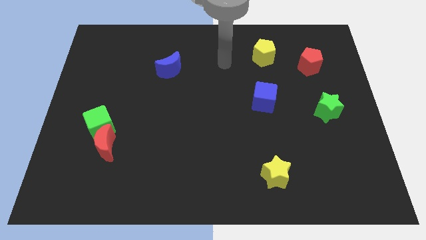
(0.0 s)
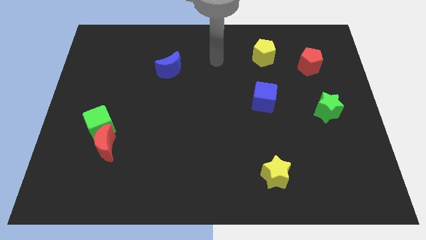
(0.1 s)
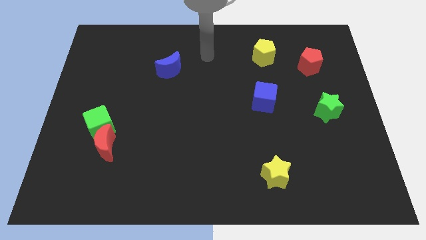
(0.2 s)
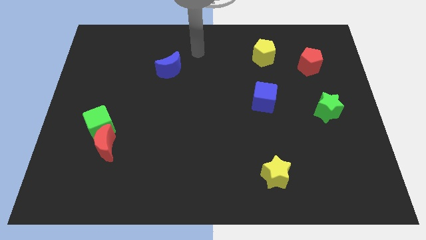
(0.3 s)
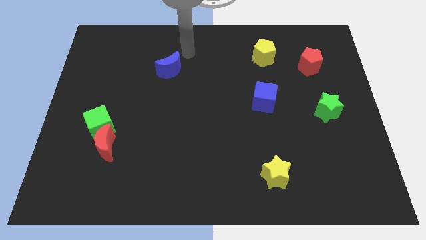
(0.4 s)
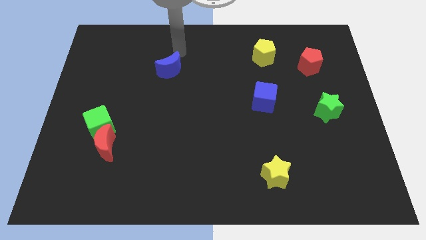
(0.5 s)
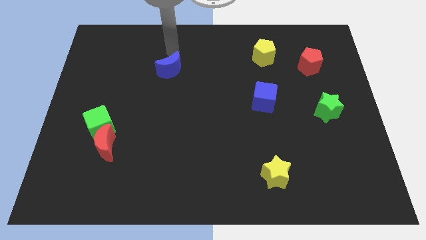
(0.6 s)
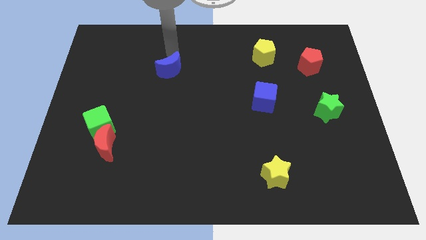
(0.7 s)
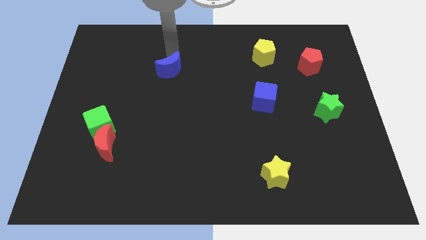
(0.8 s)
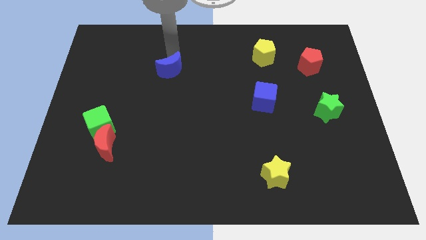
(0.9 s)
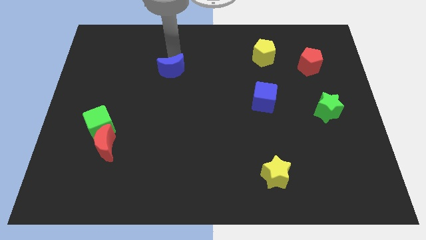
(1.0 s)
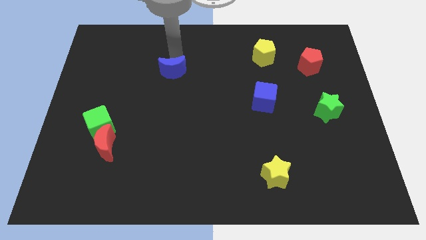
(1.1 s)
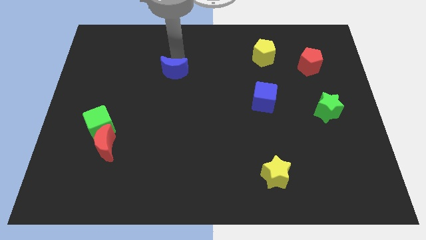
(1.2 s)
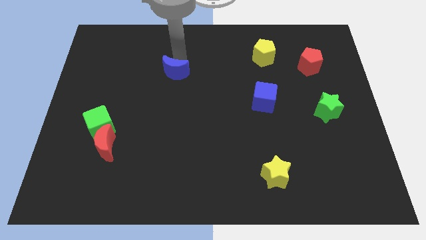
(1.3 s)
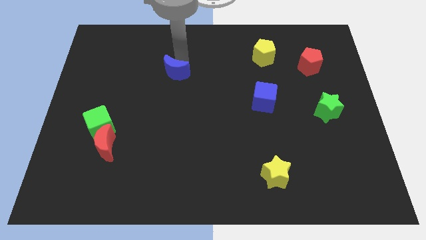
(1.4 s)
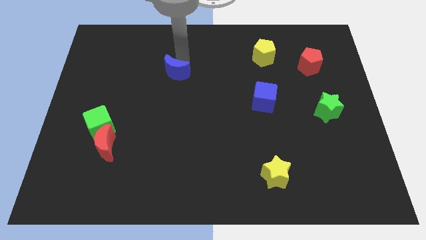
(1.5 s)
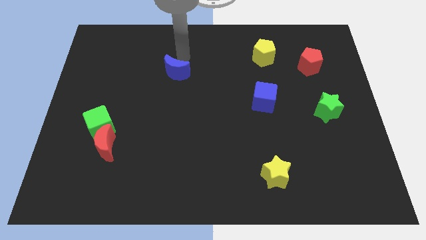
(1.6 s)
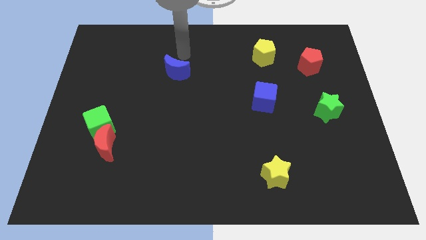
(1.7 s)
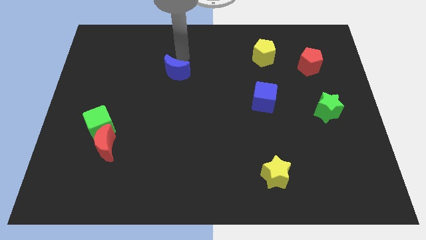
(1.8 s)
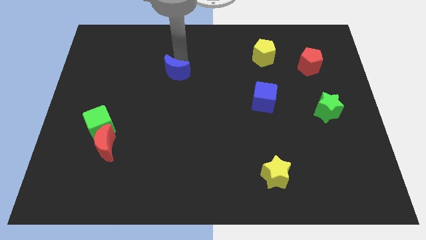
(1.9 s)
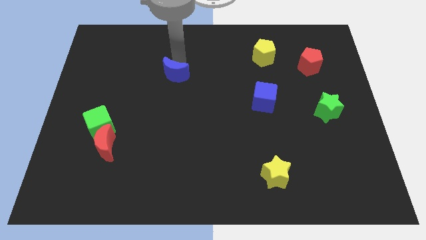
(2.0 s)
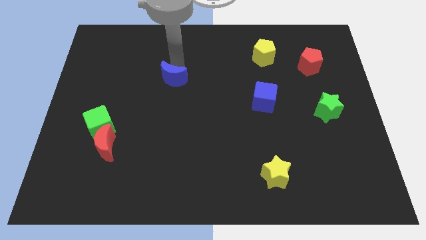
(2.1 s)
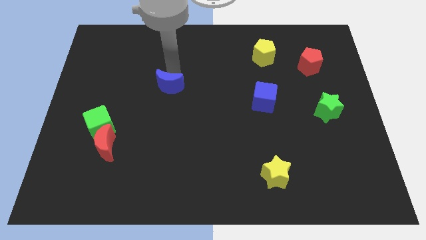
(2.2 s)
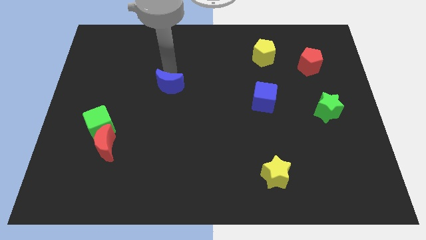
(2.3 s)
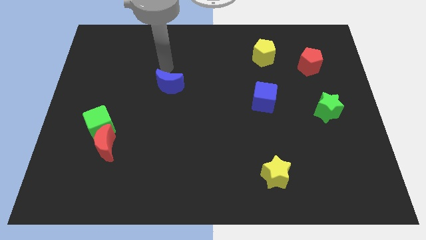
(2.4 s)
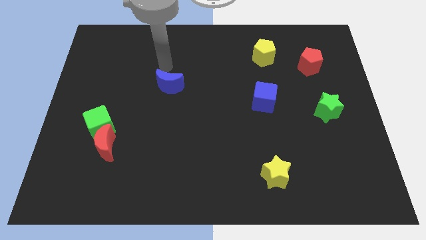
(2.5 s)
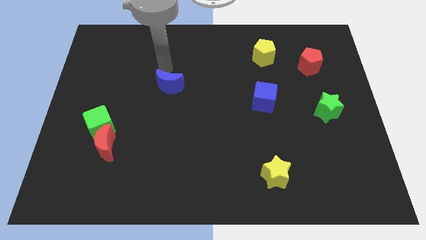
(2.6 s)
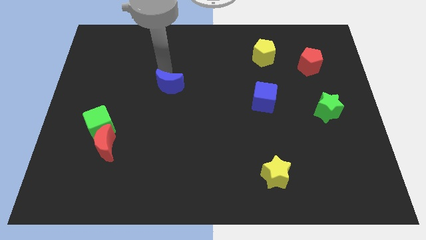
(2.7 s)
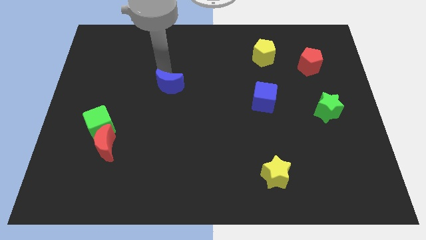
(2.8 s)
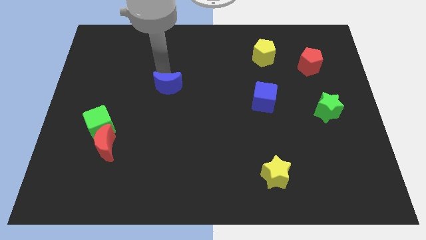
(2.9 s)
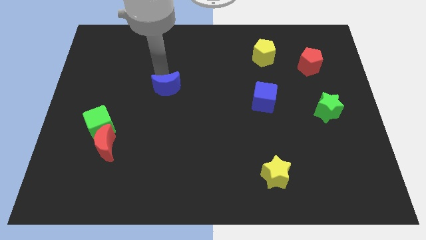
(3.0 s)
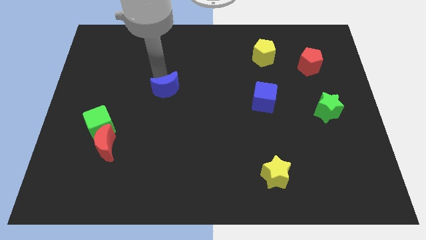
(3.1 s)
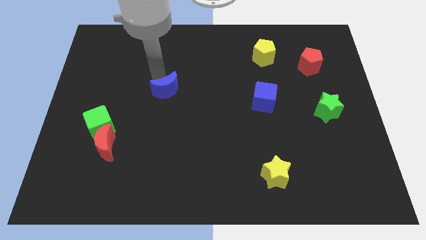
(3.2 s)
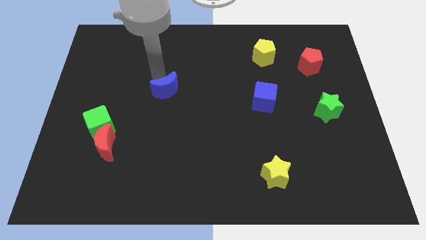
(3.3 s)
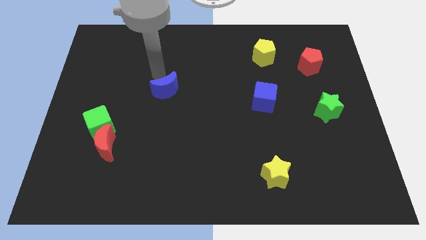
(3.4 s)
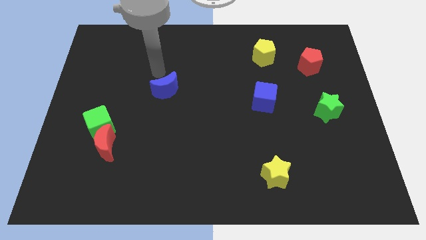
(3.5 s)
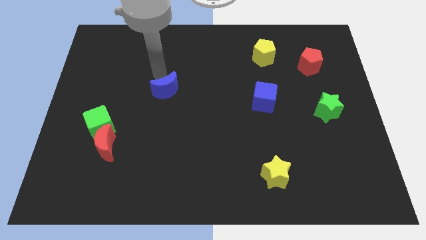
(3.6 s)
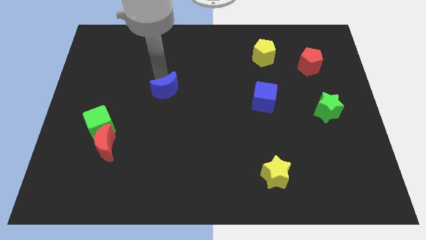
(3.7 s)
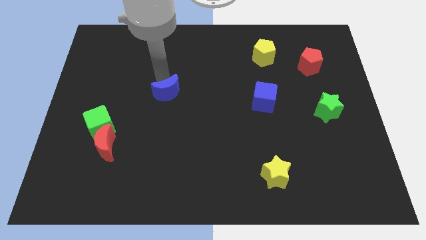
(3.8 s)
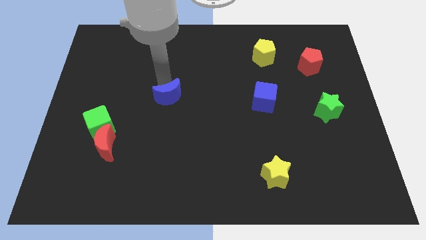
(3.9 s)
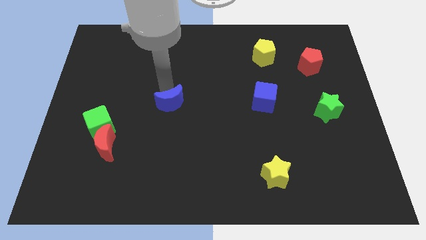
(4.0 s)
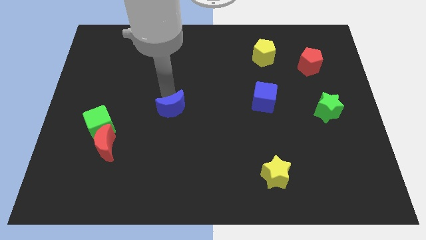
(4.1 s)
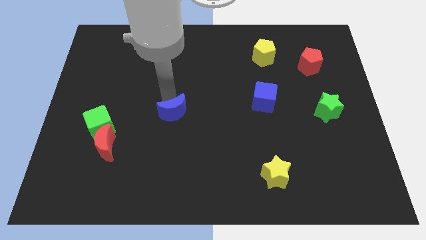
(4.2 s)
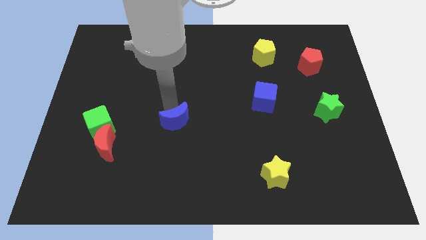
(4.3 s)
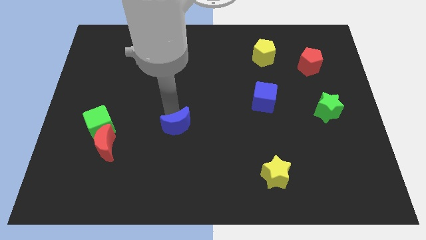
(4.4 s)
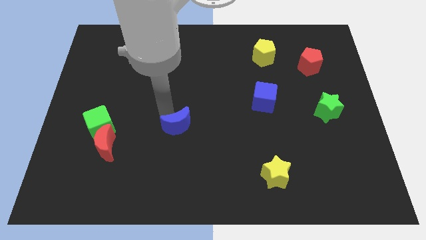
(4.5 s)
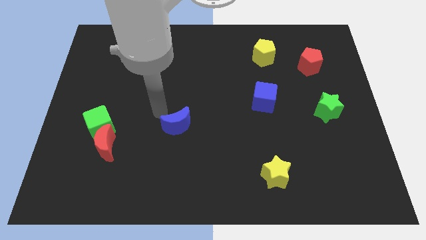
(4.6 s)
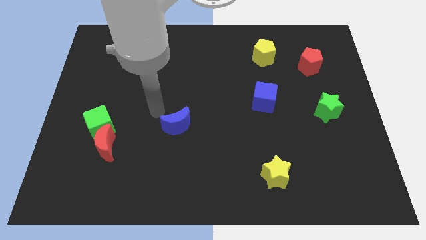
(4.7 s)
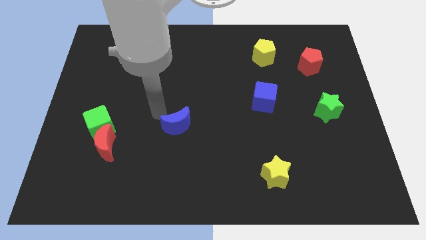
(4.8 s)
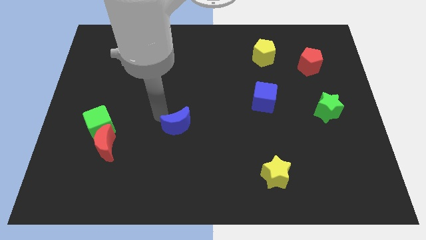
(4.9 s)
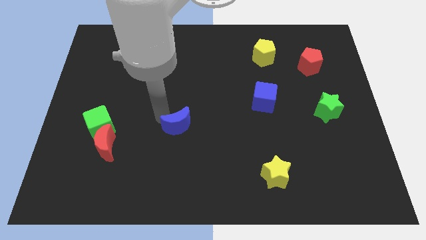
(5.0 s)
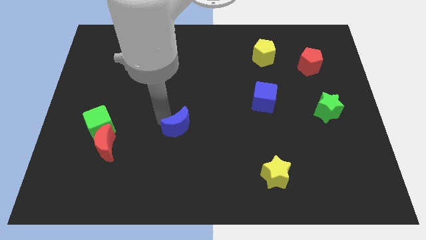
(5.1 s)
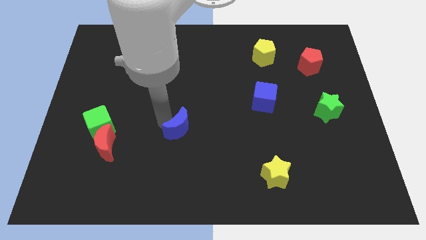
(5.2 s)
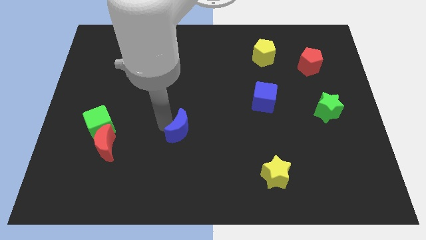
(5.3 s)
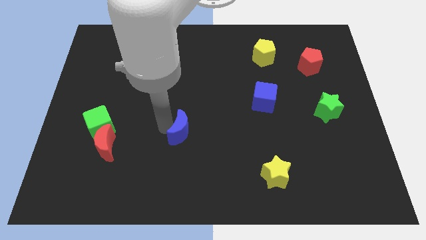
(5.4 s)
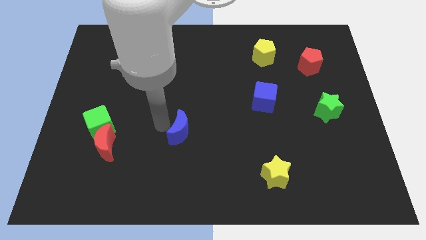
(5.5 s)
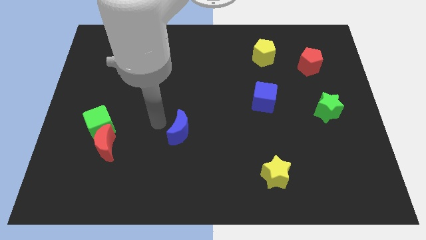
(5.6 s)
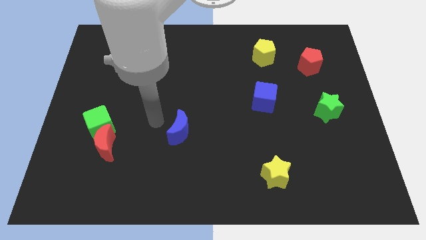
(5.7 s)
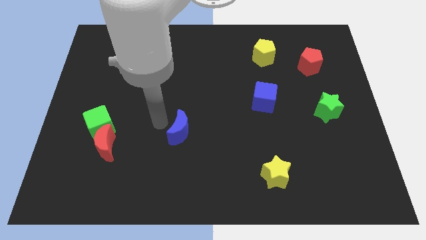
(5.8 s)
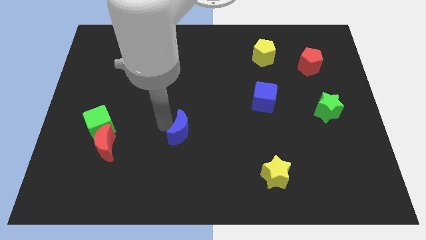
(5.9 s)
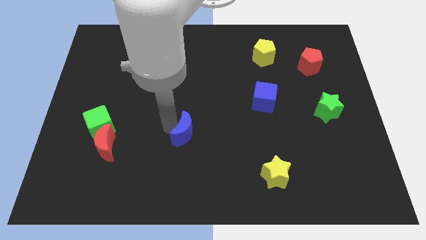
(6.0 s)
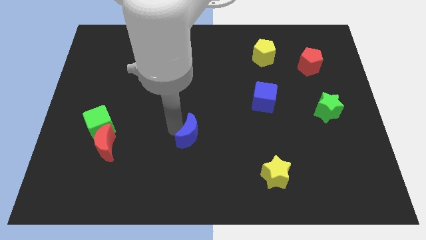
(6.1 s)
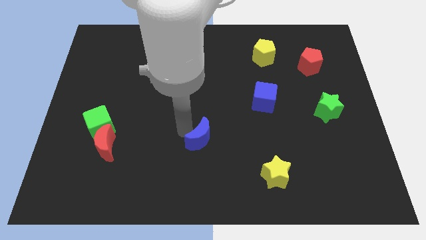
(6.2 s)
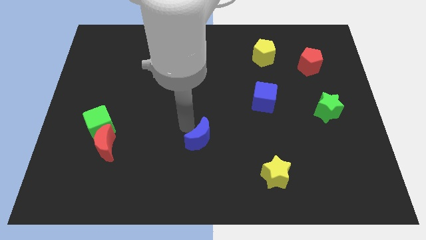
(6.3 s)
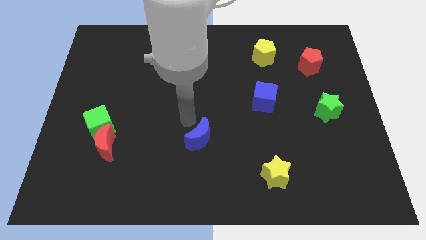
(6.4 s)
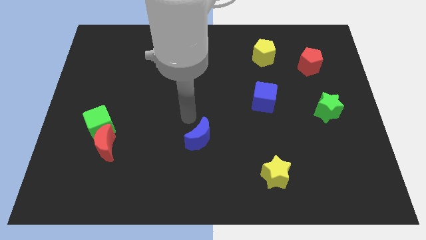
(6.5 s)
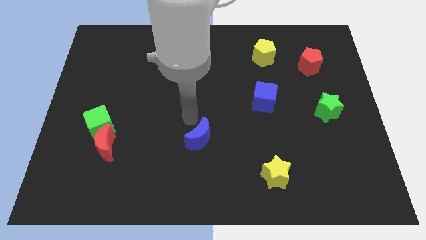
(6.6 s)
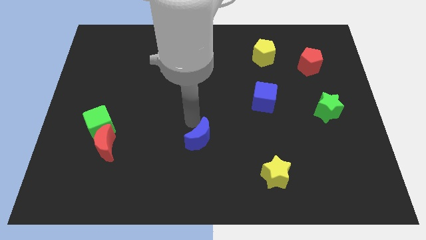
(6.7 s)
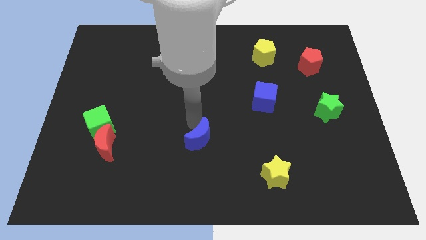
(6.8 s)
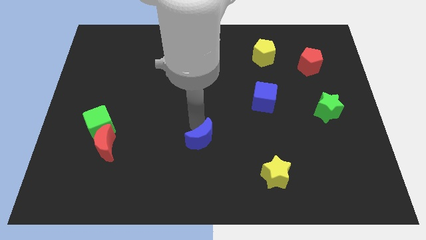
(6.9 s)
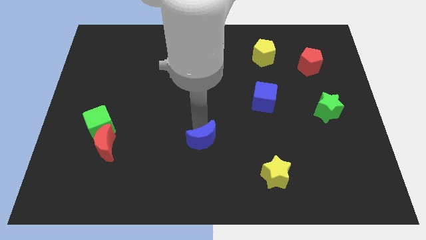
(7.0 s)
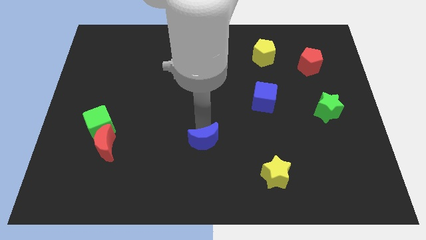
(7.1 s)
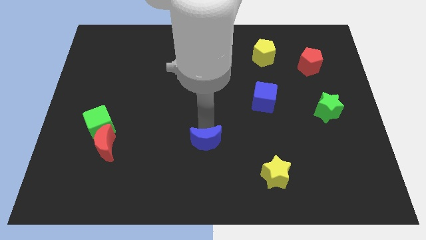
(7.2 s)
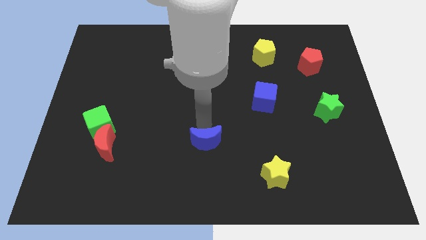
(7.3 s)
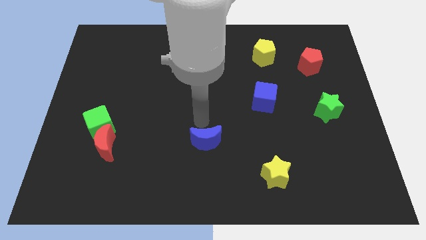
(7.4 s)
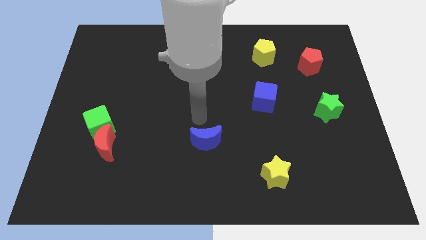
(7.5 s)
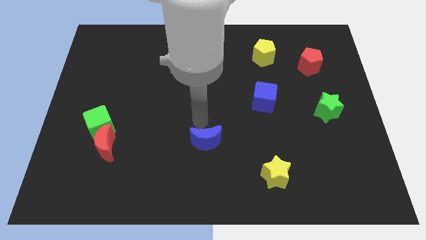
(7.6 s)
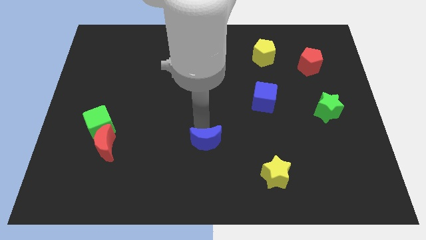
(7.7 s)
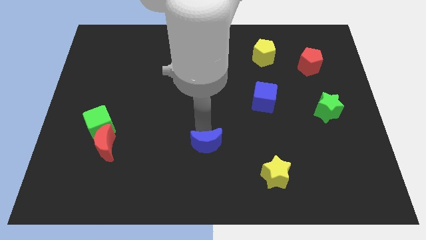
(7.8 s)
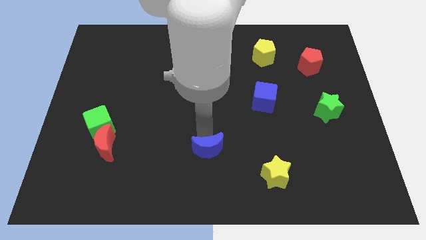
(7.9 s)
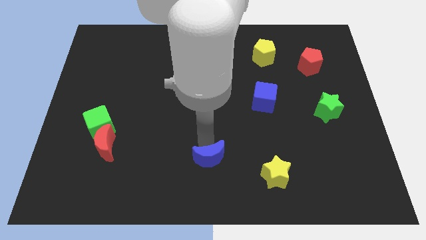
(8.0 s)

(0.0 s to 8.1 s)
move the blue moon to the left side of the yellow star
